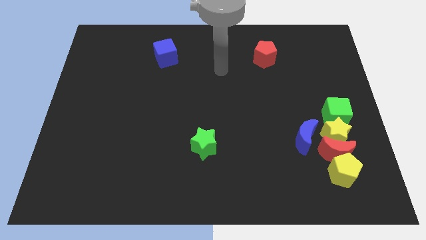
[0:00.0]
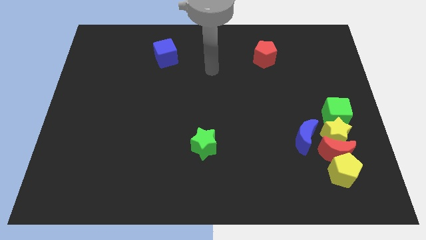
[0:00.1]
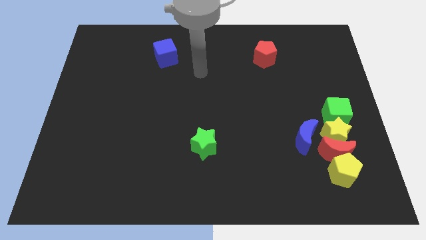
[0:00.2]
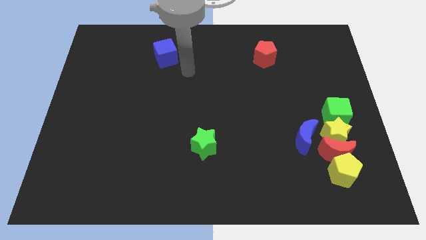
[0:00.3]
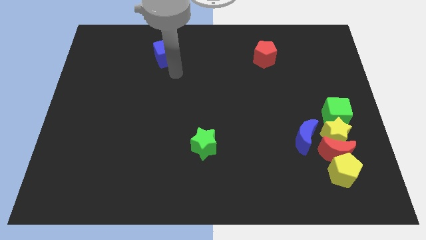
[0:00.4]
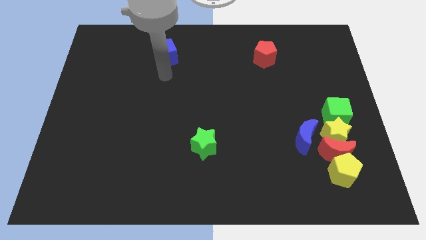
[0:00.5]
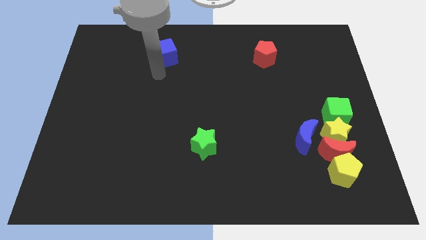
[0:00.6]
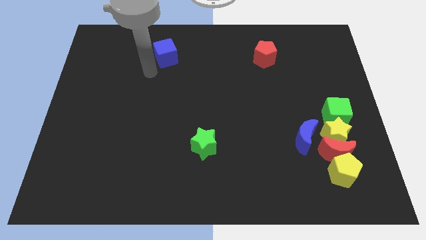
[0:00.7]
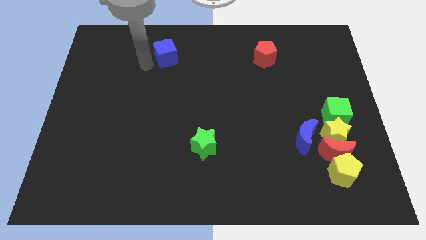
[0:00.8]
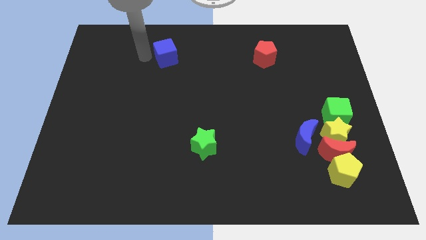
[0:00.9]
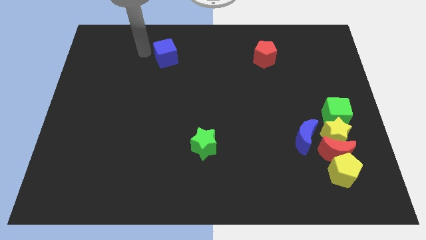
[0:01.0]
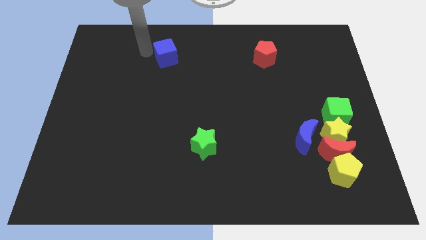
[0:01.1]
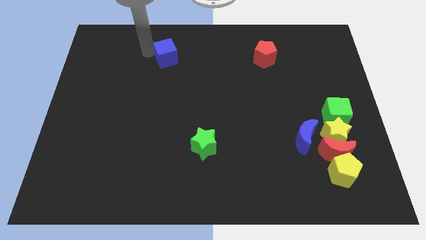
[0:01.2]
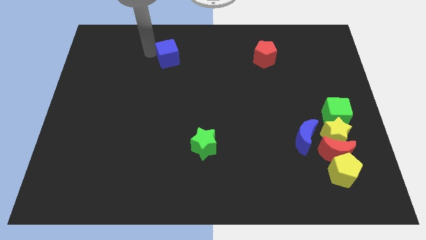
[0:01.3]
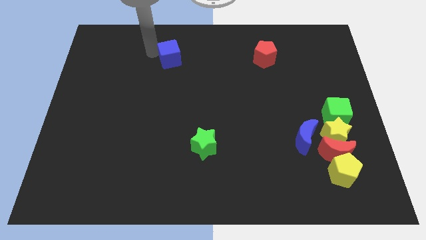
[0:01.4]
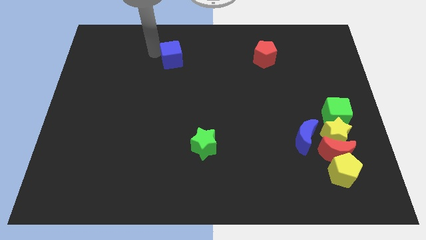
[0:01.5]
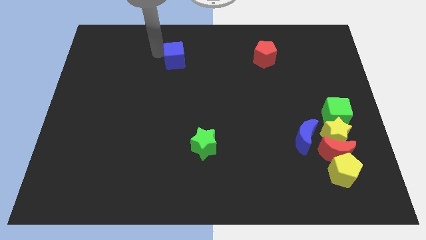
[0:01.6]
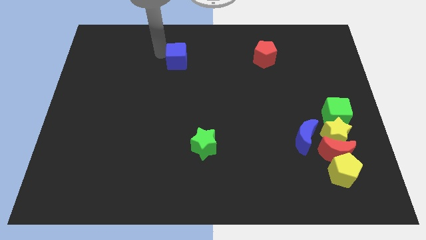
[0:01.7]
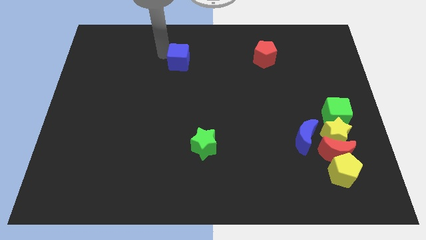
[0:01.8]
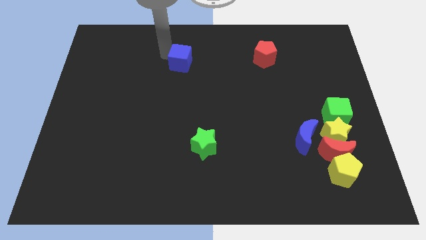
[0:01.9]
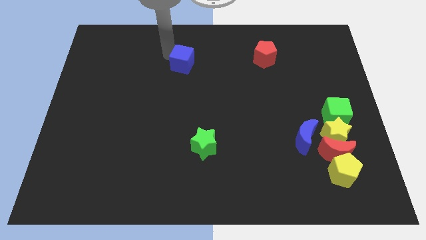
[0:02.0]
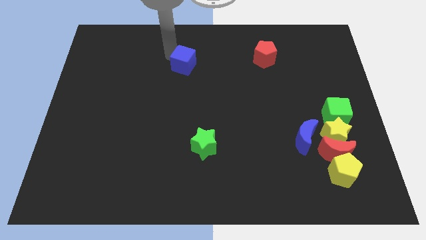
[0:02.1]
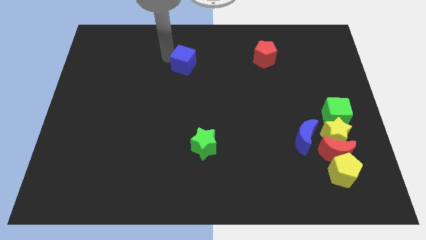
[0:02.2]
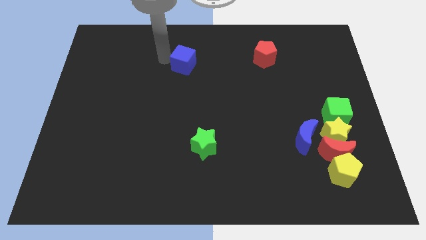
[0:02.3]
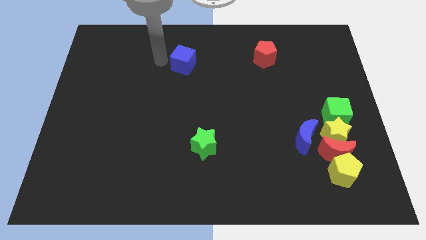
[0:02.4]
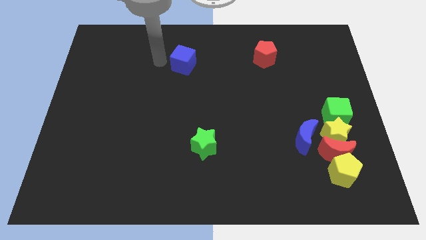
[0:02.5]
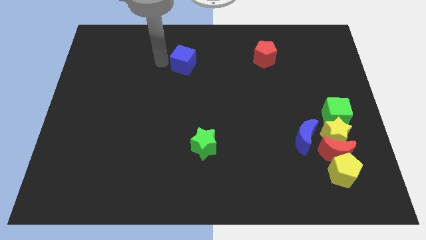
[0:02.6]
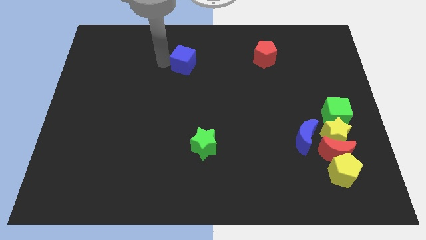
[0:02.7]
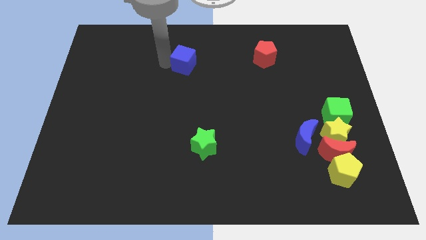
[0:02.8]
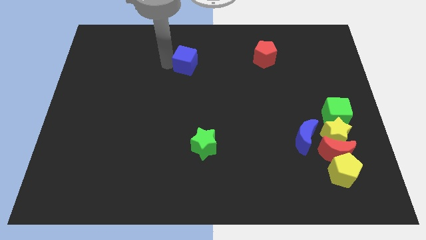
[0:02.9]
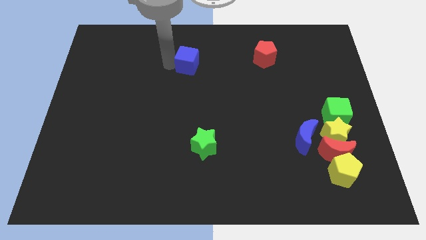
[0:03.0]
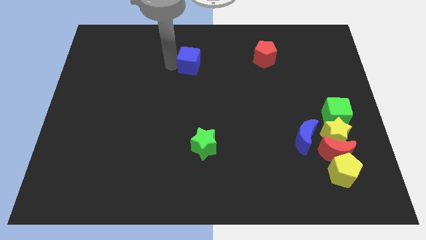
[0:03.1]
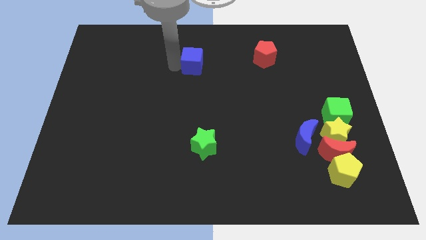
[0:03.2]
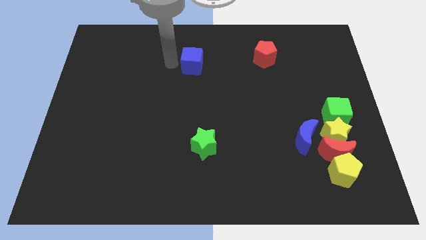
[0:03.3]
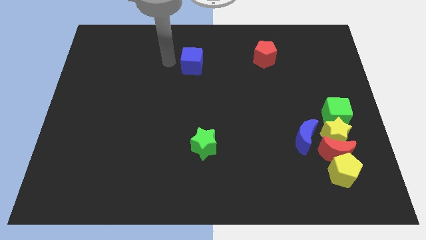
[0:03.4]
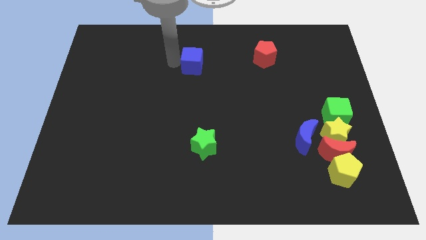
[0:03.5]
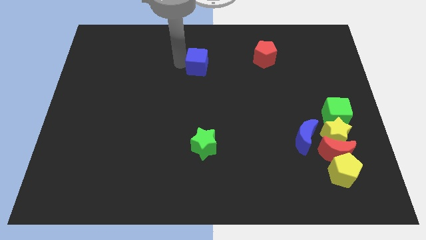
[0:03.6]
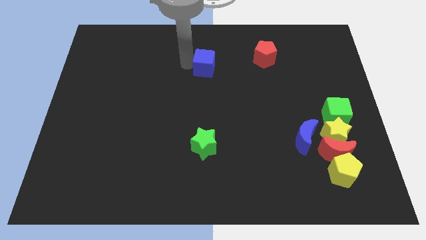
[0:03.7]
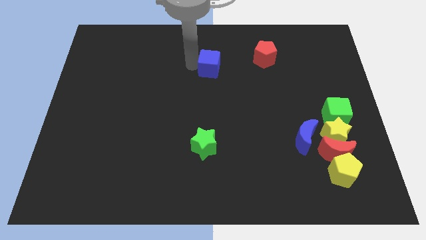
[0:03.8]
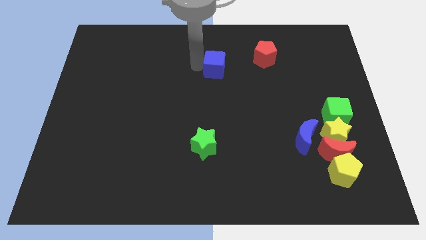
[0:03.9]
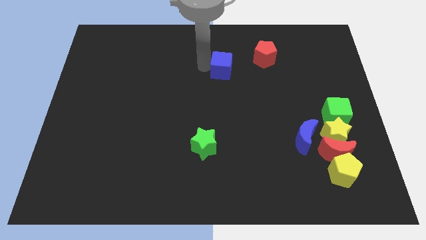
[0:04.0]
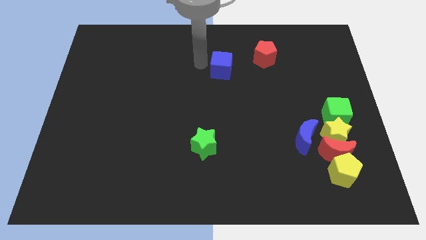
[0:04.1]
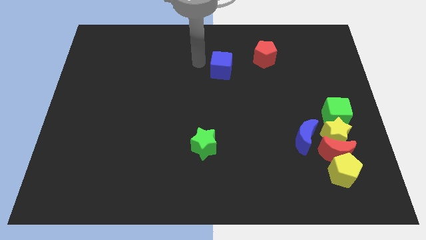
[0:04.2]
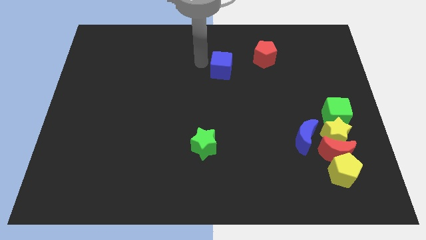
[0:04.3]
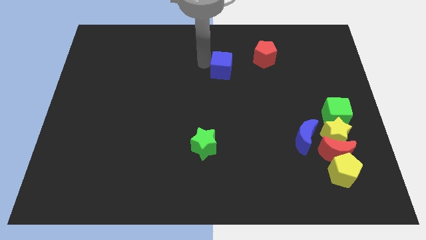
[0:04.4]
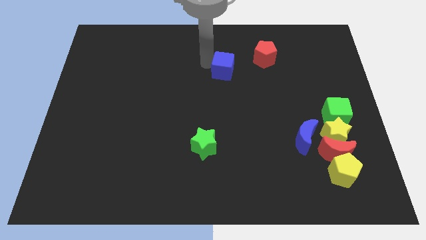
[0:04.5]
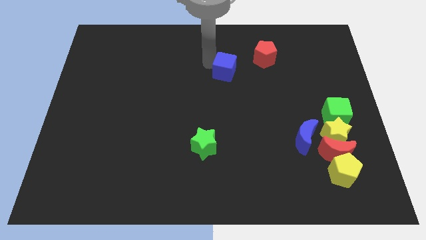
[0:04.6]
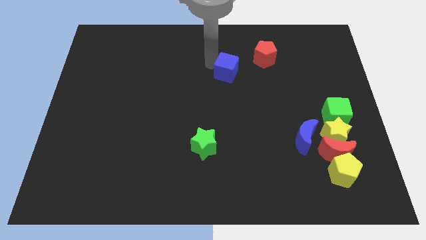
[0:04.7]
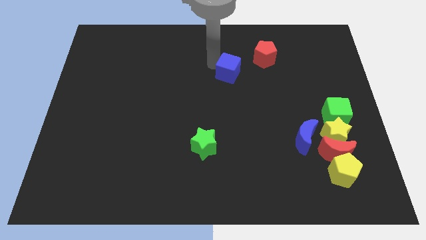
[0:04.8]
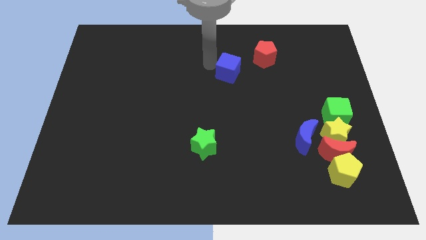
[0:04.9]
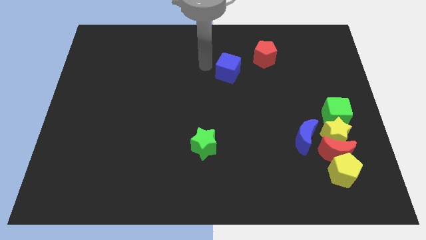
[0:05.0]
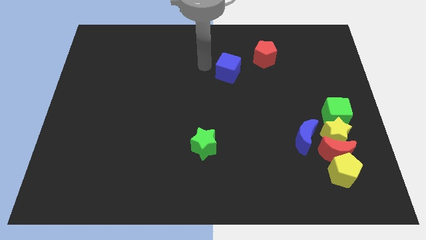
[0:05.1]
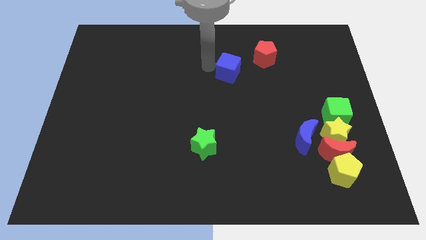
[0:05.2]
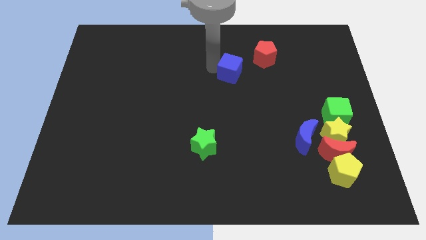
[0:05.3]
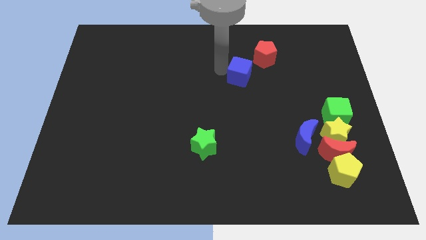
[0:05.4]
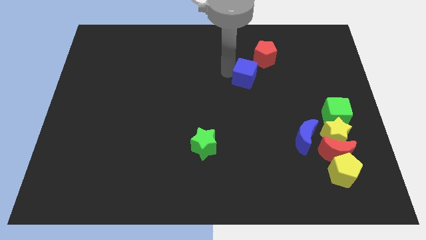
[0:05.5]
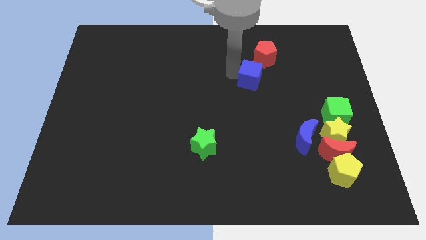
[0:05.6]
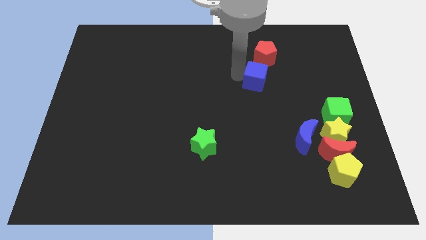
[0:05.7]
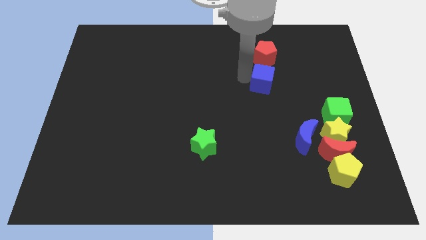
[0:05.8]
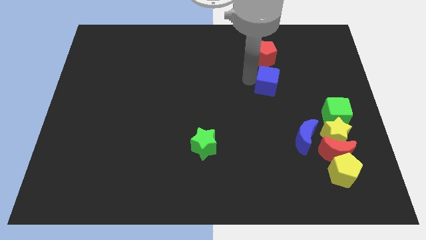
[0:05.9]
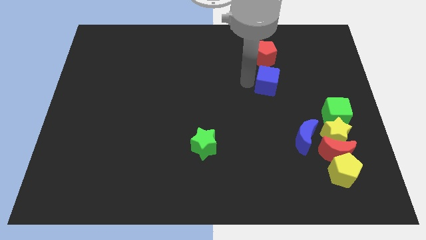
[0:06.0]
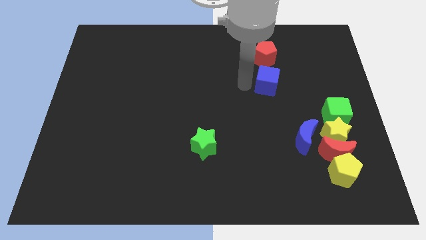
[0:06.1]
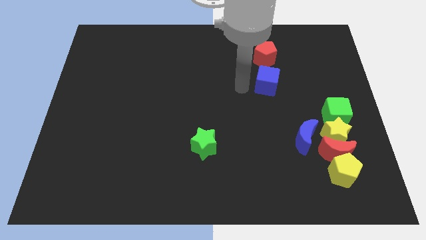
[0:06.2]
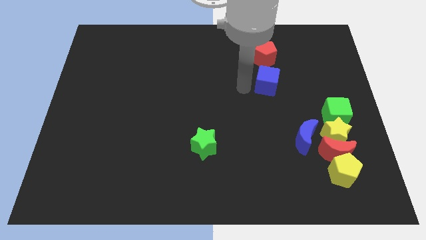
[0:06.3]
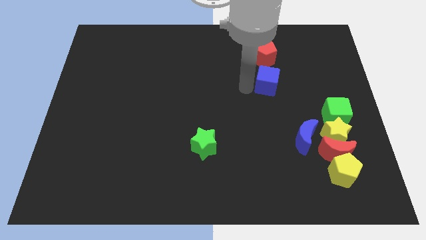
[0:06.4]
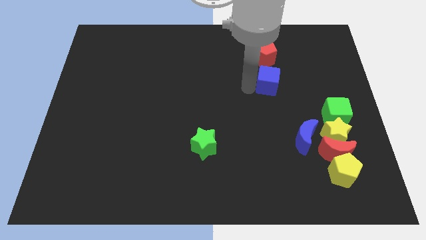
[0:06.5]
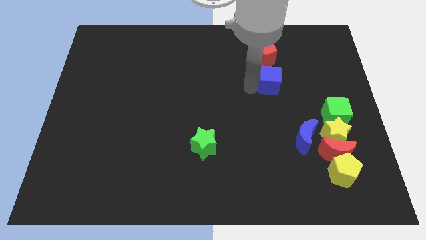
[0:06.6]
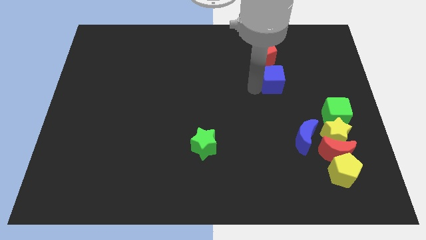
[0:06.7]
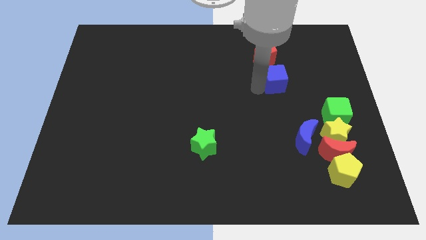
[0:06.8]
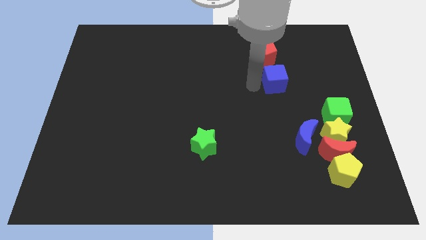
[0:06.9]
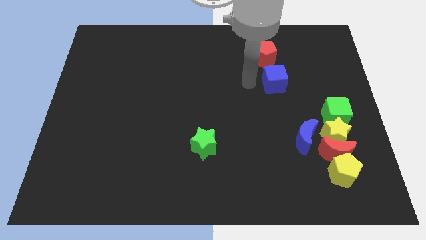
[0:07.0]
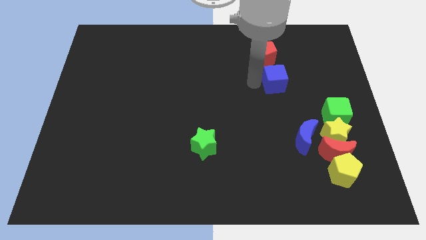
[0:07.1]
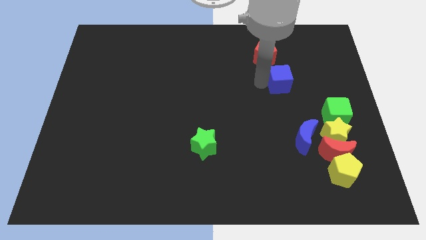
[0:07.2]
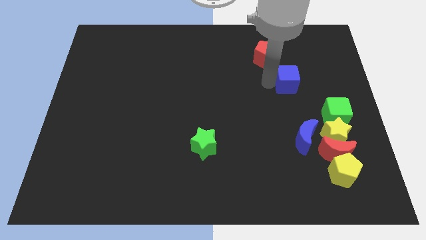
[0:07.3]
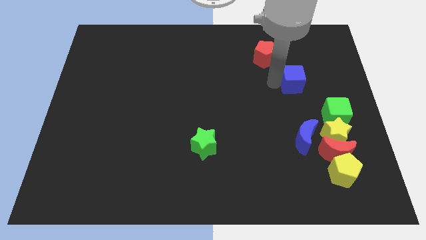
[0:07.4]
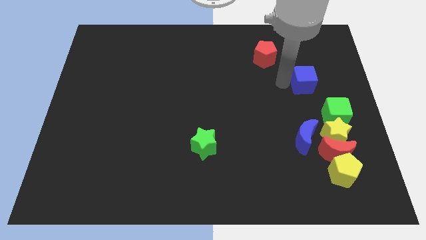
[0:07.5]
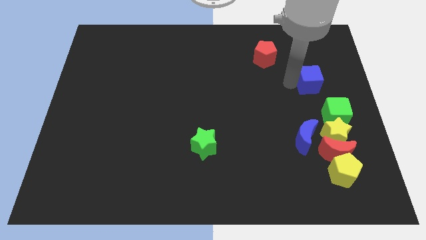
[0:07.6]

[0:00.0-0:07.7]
push the blue cube above the green cube
